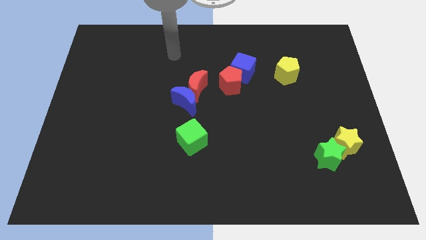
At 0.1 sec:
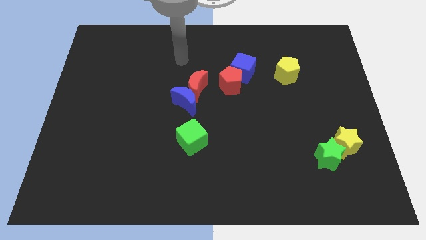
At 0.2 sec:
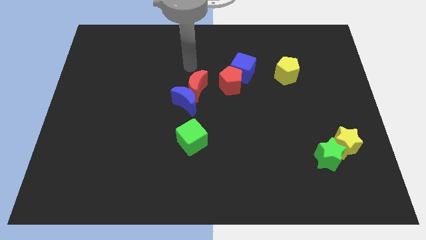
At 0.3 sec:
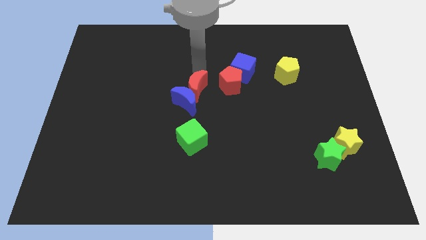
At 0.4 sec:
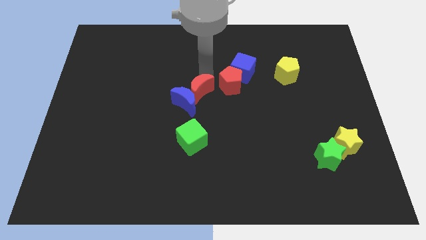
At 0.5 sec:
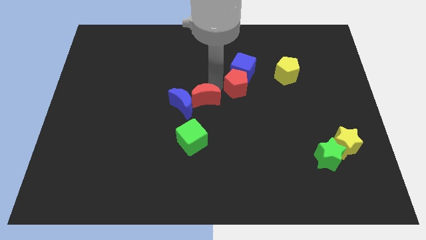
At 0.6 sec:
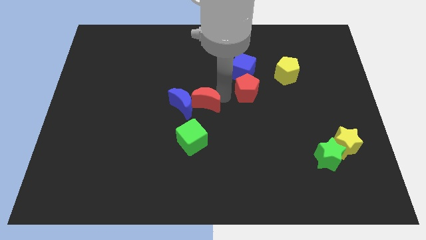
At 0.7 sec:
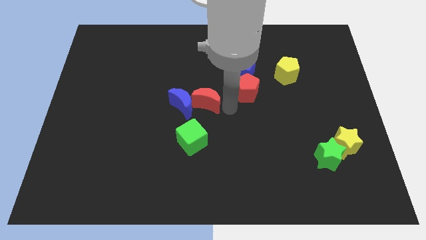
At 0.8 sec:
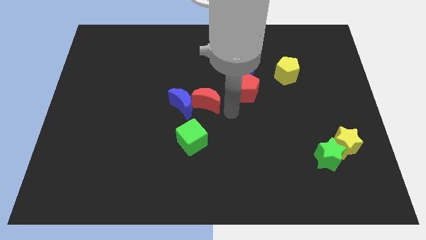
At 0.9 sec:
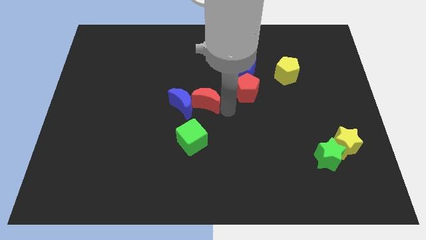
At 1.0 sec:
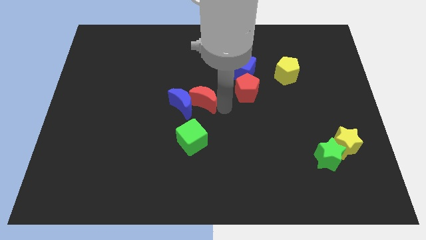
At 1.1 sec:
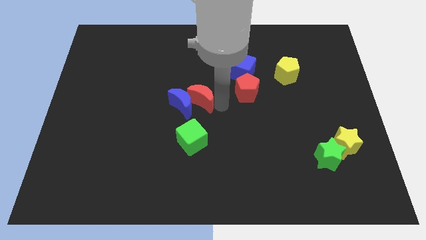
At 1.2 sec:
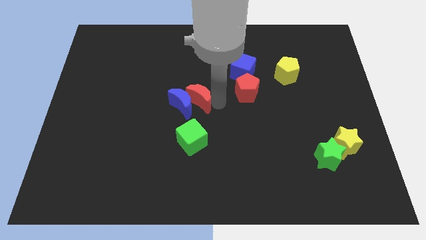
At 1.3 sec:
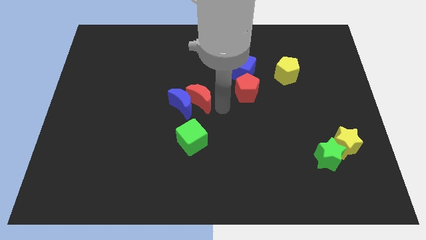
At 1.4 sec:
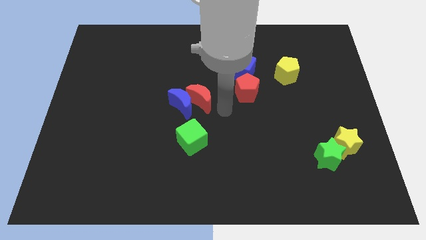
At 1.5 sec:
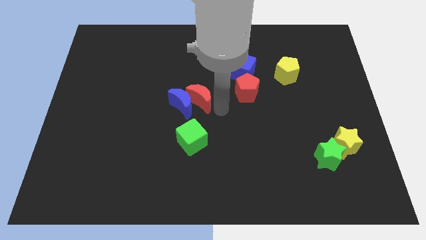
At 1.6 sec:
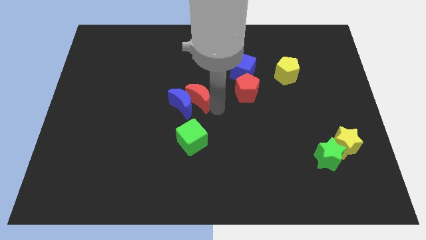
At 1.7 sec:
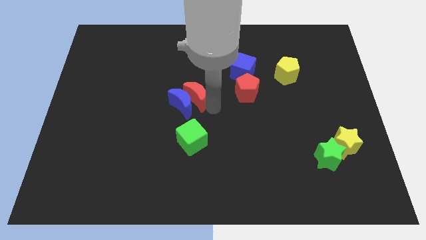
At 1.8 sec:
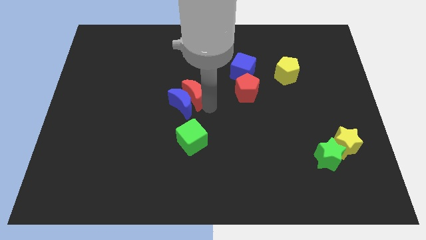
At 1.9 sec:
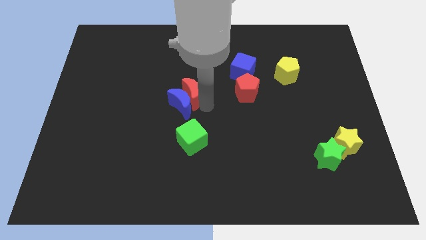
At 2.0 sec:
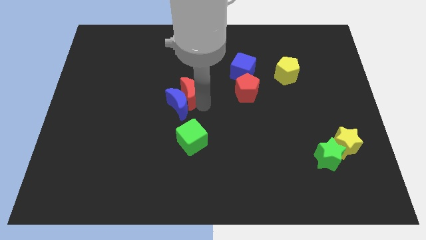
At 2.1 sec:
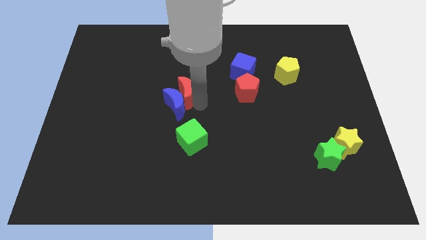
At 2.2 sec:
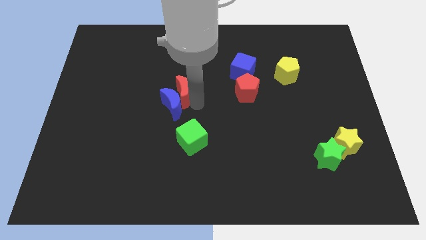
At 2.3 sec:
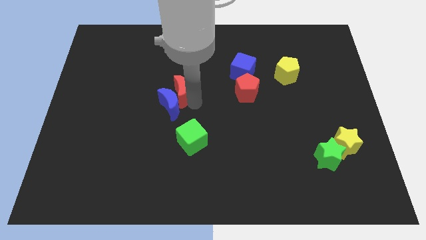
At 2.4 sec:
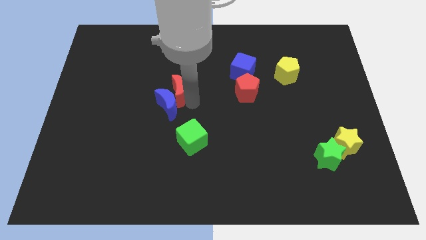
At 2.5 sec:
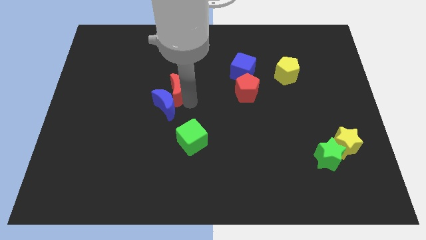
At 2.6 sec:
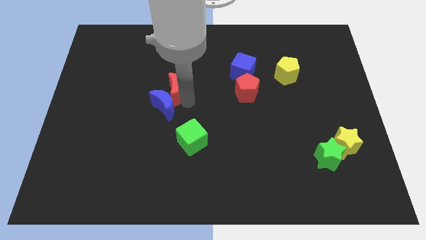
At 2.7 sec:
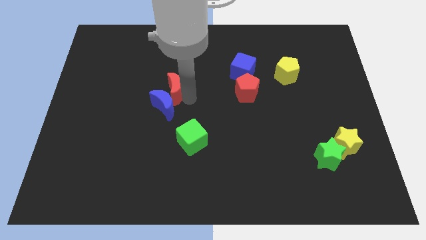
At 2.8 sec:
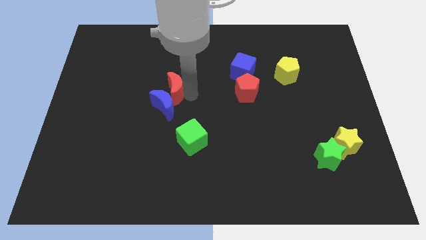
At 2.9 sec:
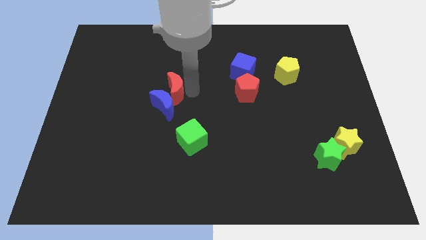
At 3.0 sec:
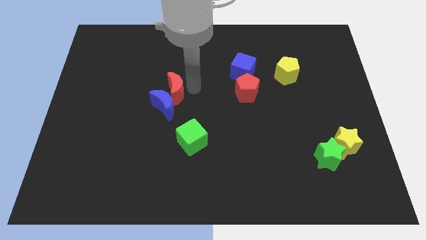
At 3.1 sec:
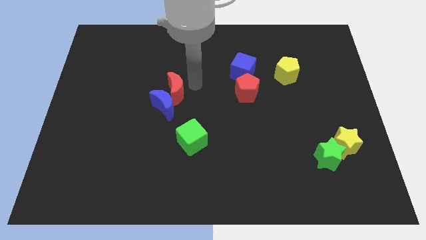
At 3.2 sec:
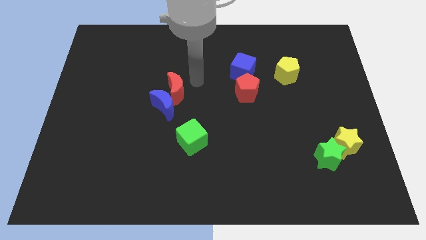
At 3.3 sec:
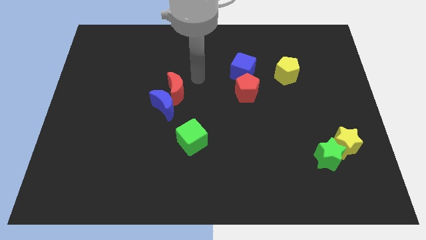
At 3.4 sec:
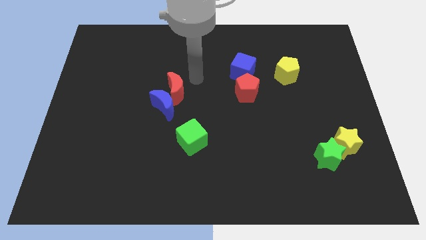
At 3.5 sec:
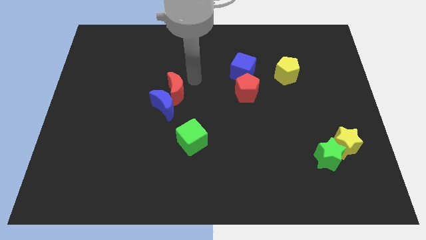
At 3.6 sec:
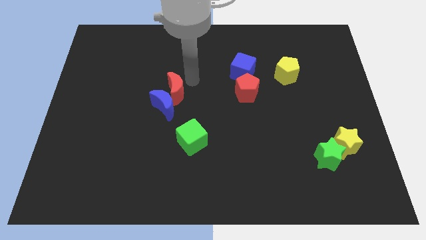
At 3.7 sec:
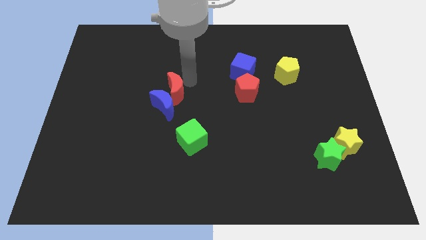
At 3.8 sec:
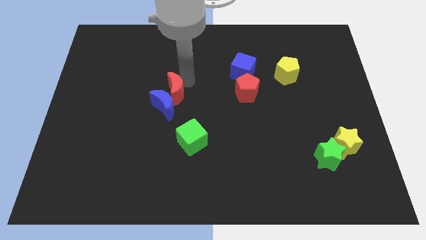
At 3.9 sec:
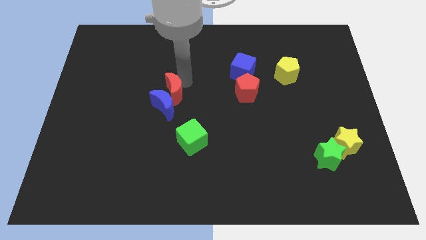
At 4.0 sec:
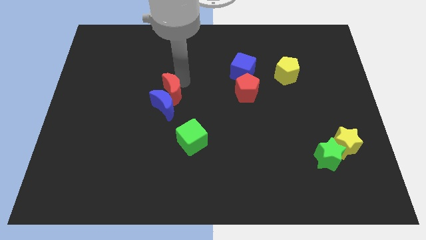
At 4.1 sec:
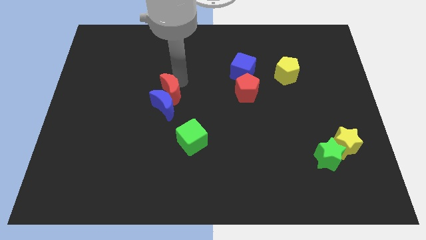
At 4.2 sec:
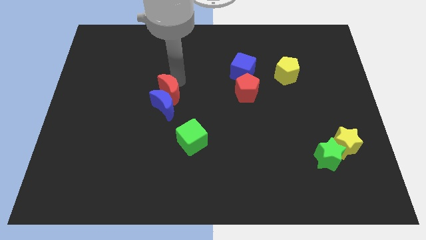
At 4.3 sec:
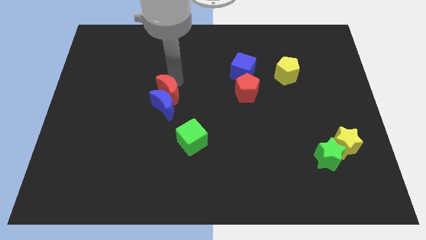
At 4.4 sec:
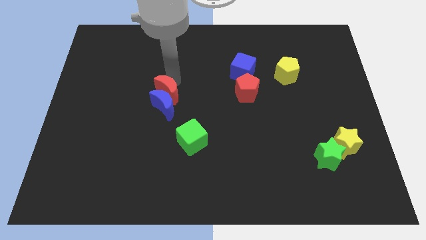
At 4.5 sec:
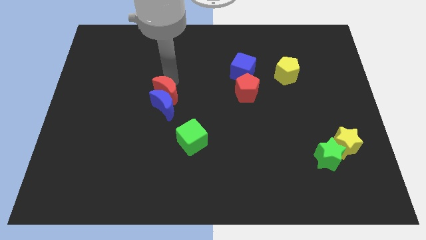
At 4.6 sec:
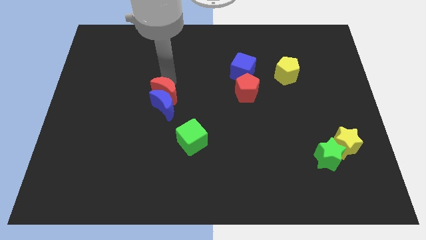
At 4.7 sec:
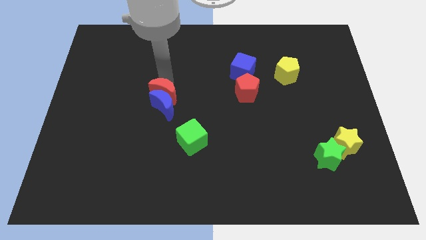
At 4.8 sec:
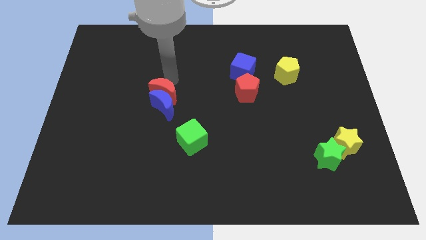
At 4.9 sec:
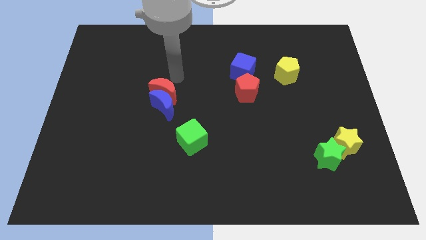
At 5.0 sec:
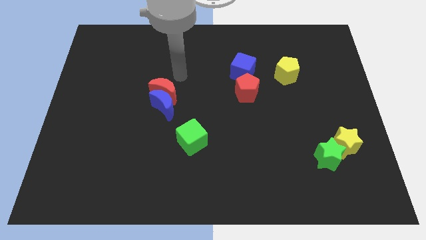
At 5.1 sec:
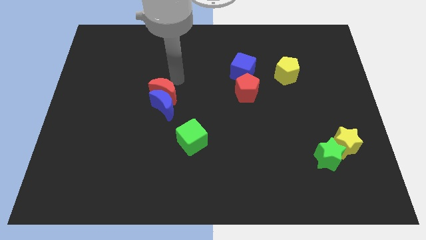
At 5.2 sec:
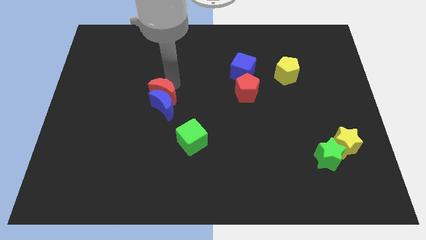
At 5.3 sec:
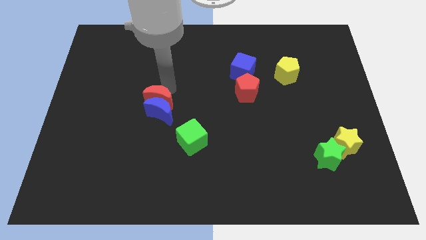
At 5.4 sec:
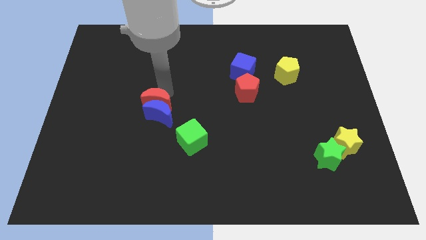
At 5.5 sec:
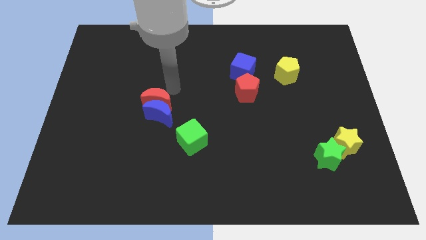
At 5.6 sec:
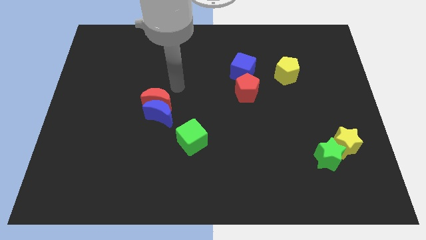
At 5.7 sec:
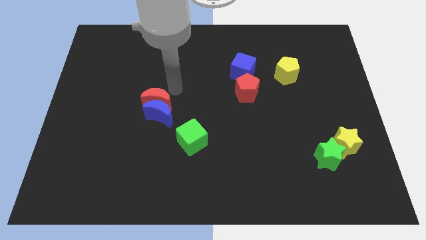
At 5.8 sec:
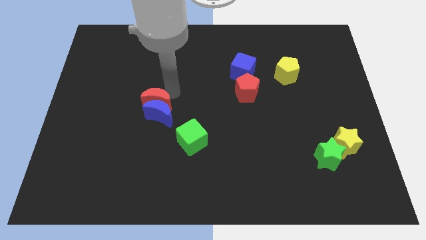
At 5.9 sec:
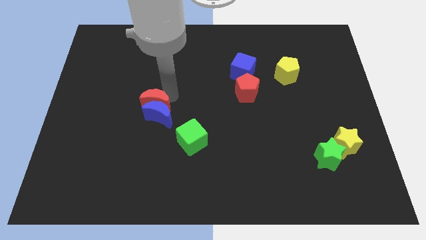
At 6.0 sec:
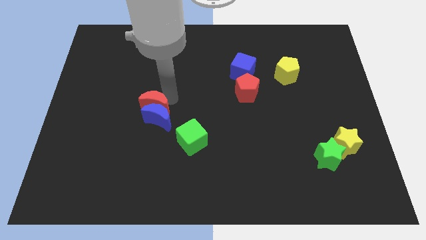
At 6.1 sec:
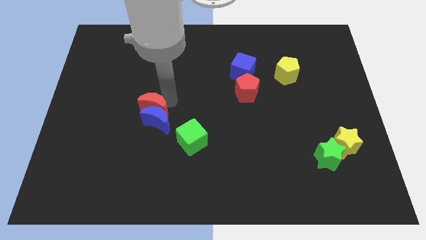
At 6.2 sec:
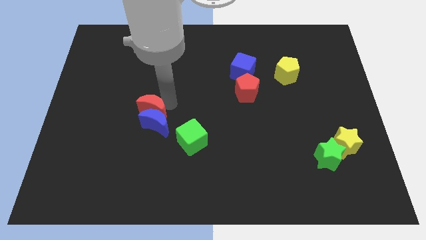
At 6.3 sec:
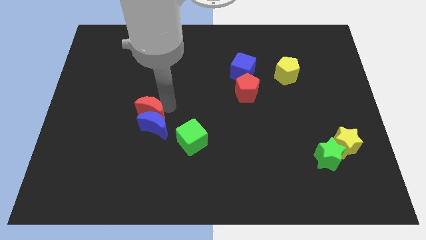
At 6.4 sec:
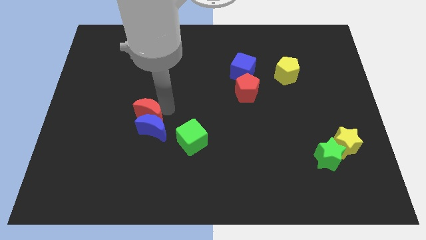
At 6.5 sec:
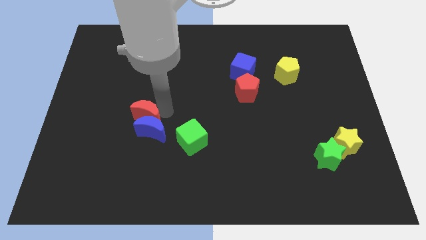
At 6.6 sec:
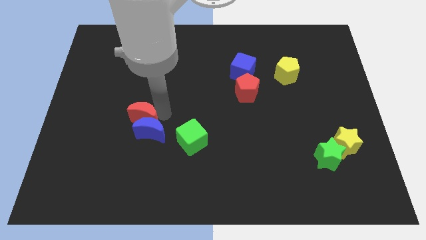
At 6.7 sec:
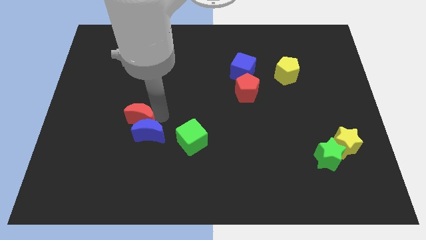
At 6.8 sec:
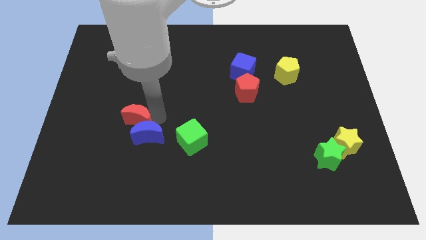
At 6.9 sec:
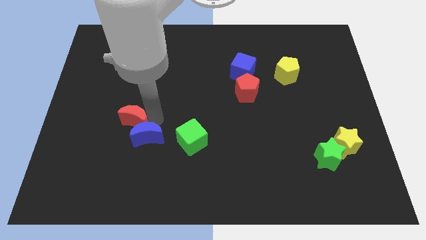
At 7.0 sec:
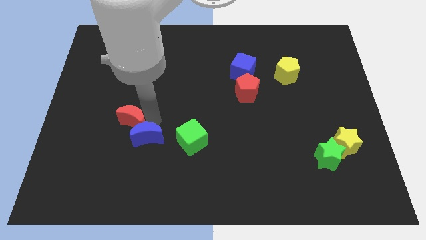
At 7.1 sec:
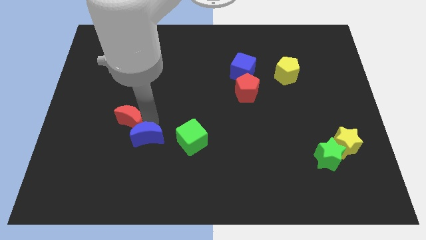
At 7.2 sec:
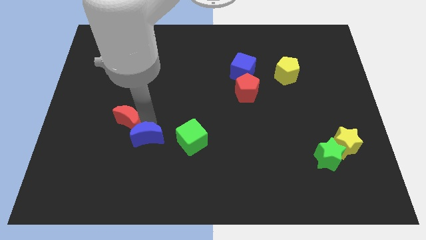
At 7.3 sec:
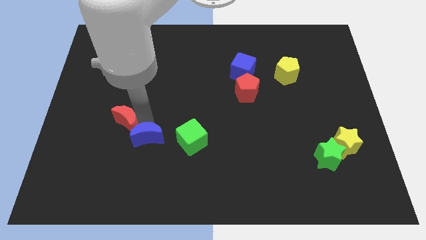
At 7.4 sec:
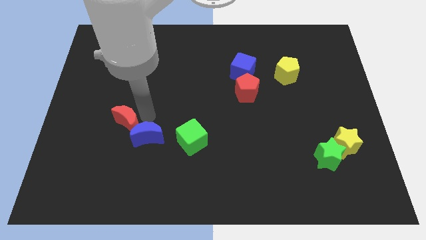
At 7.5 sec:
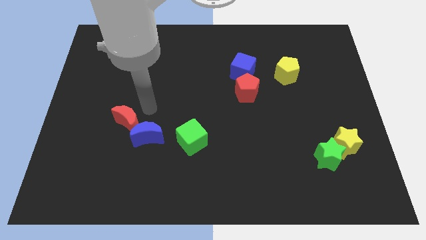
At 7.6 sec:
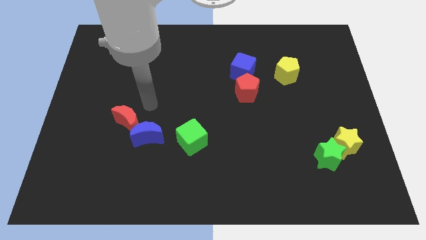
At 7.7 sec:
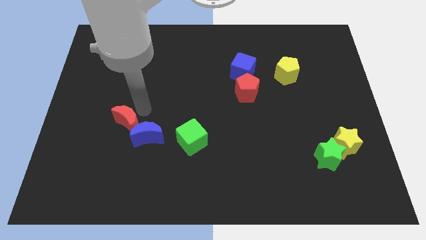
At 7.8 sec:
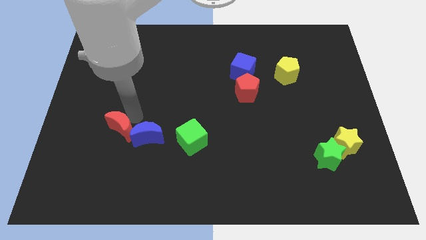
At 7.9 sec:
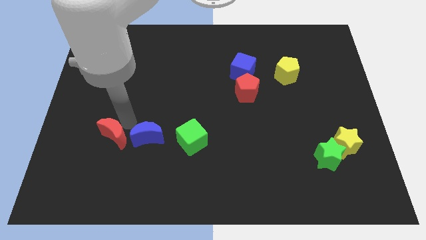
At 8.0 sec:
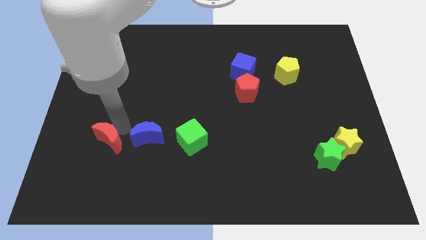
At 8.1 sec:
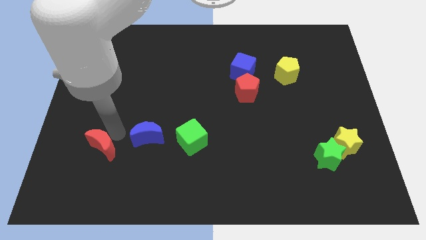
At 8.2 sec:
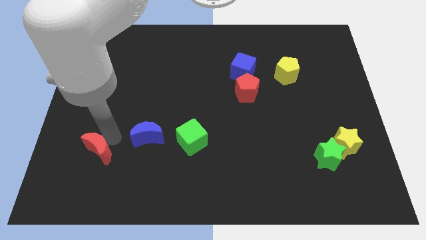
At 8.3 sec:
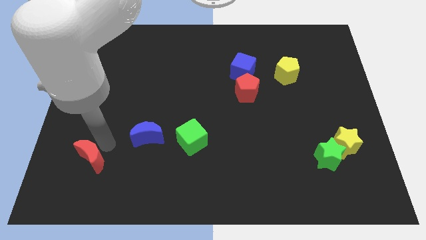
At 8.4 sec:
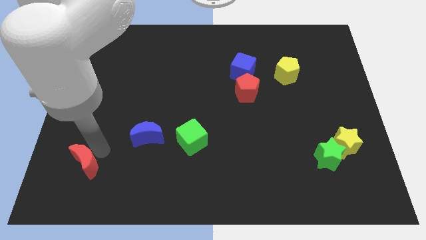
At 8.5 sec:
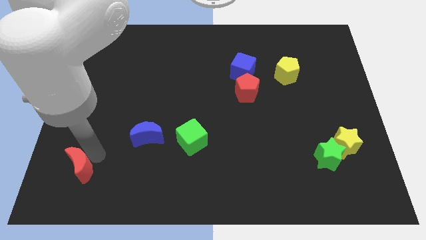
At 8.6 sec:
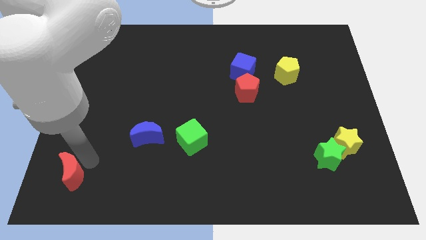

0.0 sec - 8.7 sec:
slide the red moon to the bottom left of the board
